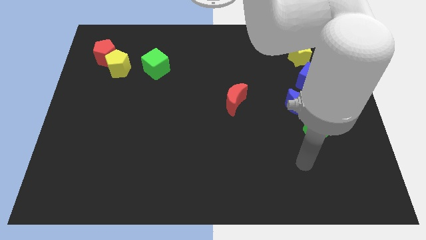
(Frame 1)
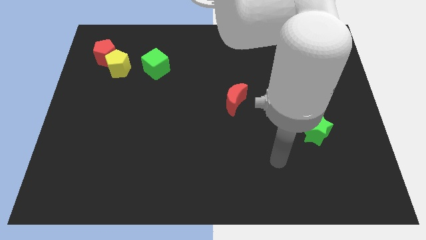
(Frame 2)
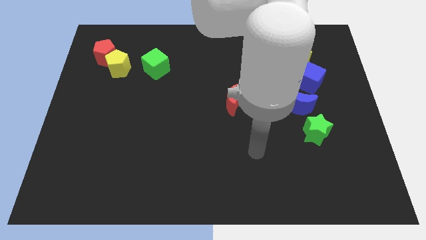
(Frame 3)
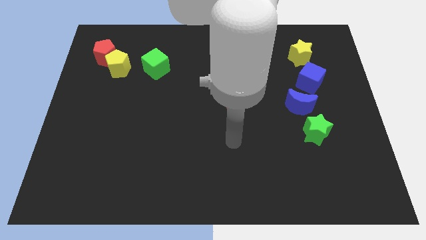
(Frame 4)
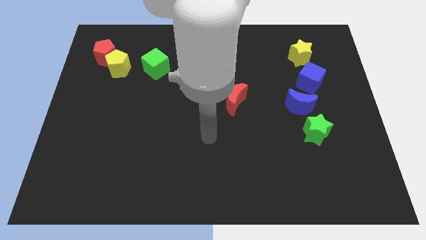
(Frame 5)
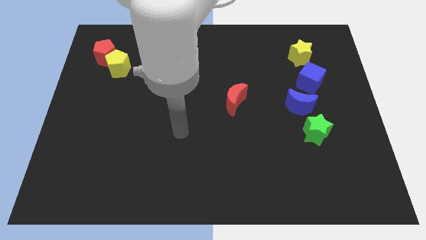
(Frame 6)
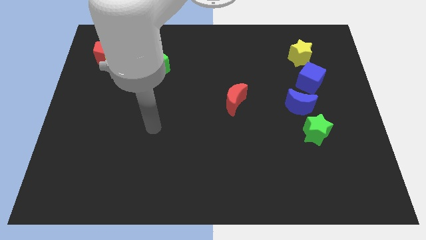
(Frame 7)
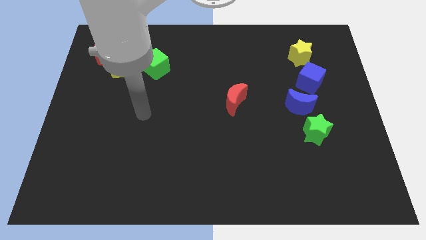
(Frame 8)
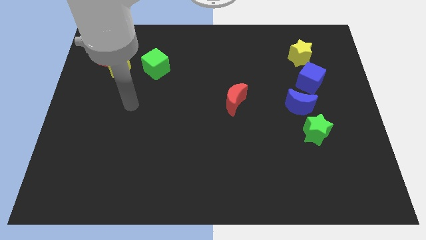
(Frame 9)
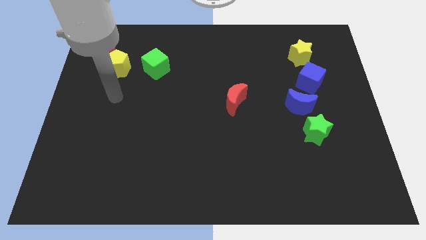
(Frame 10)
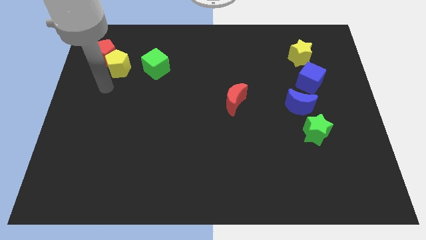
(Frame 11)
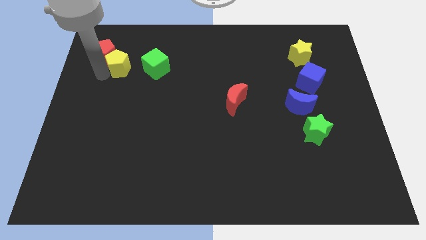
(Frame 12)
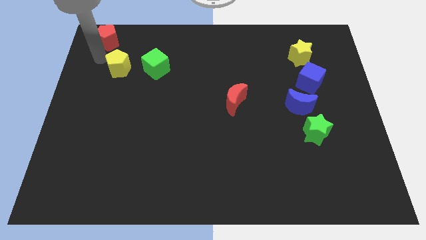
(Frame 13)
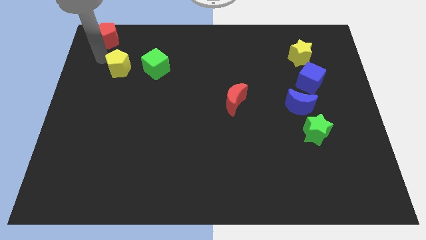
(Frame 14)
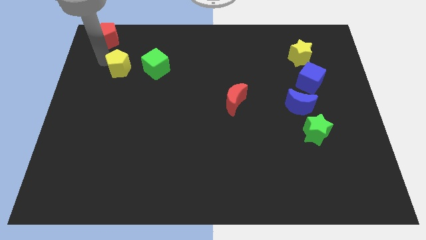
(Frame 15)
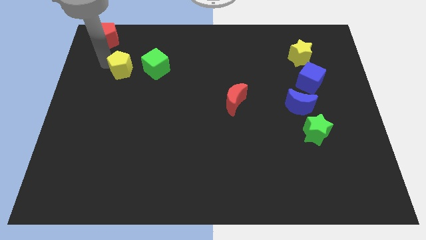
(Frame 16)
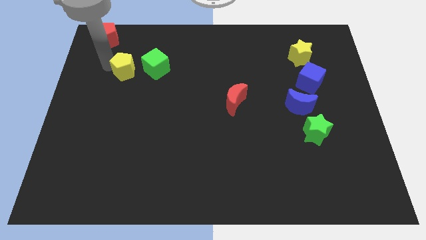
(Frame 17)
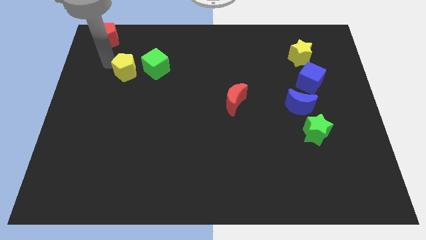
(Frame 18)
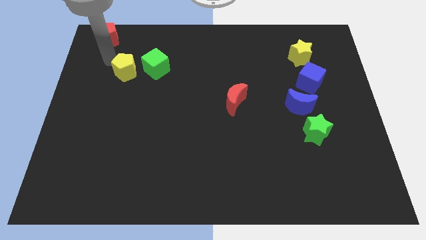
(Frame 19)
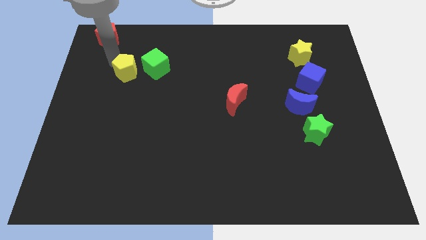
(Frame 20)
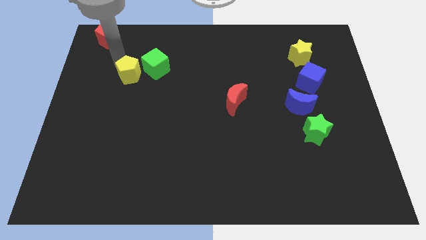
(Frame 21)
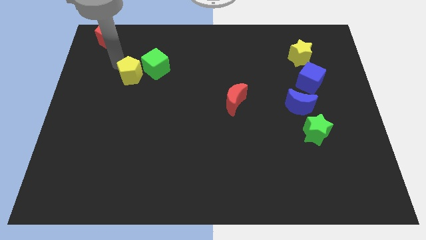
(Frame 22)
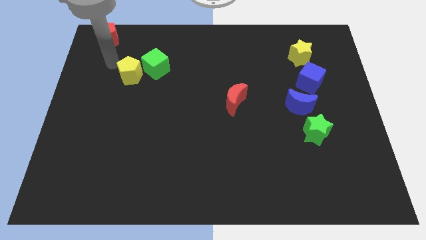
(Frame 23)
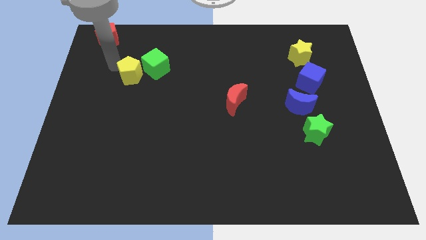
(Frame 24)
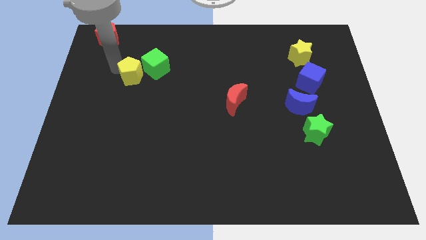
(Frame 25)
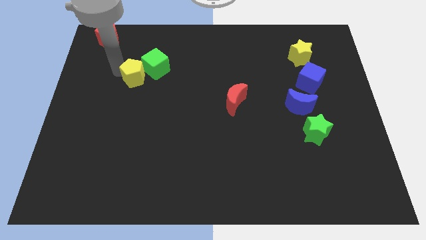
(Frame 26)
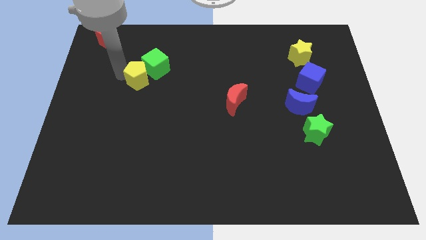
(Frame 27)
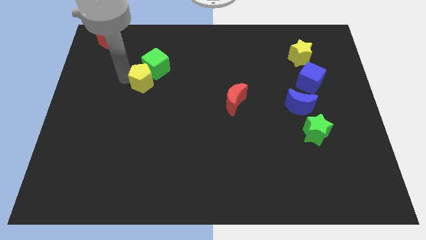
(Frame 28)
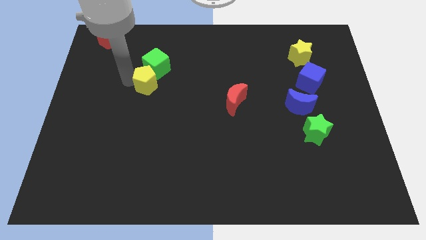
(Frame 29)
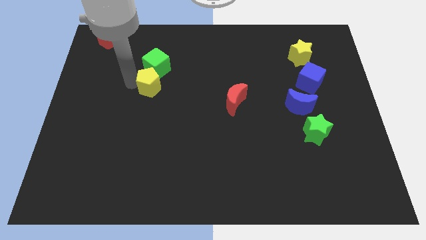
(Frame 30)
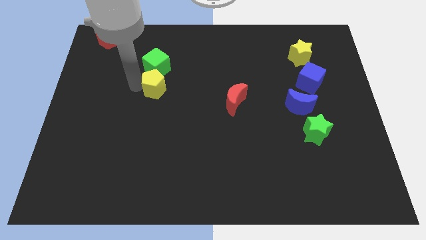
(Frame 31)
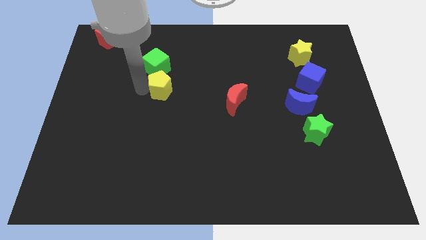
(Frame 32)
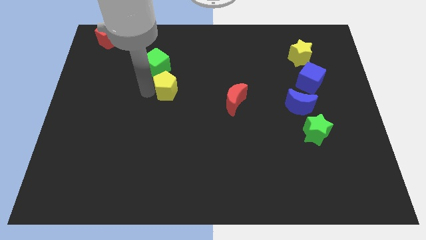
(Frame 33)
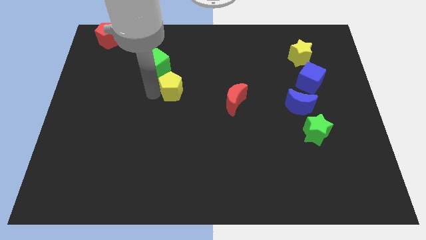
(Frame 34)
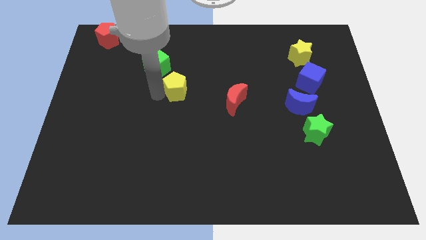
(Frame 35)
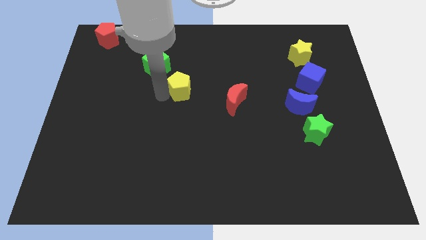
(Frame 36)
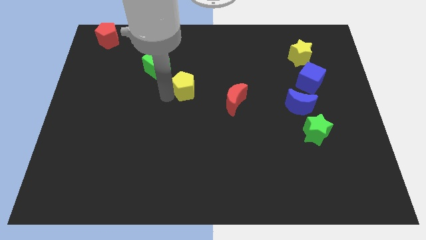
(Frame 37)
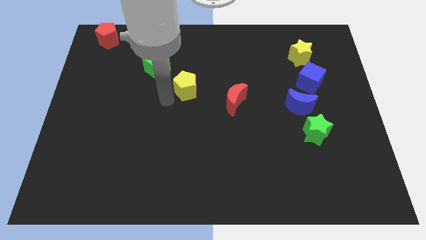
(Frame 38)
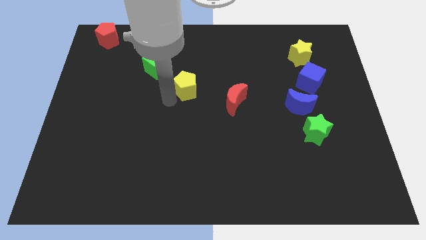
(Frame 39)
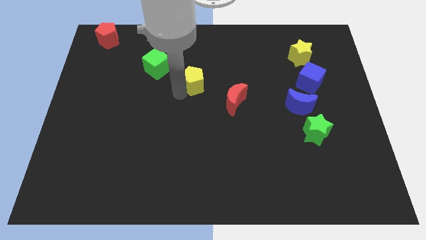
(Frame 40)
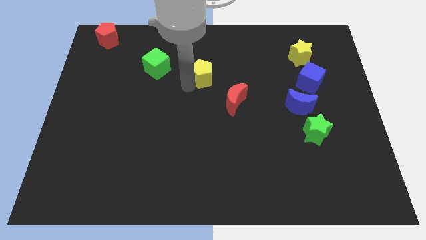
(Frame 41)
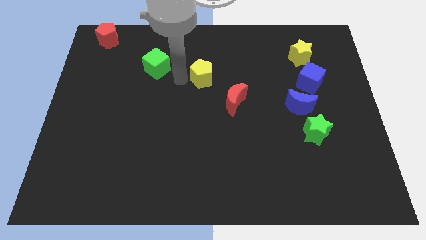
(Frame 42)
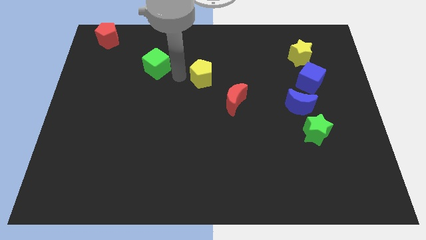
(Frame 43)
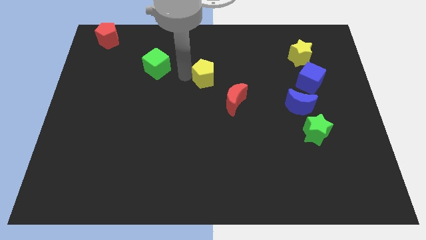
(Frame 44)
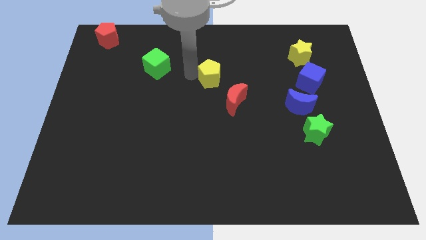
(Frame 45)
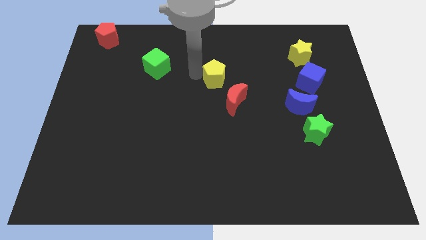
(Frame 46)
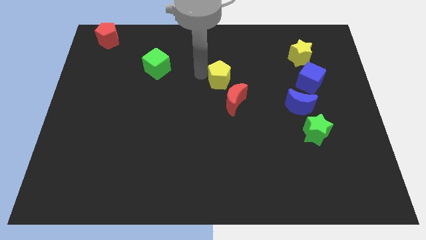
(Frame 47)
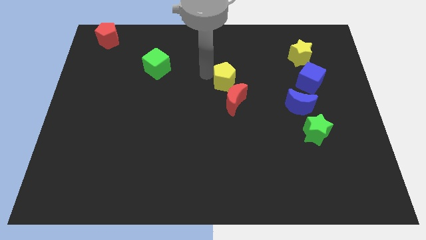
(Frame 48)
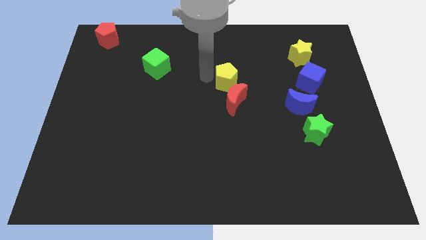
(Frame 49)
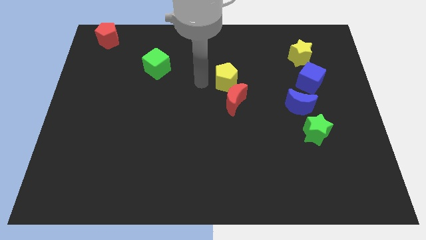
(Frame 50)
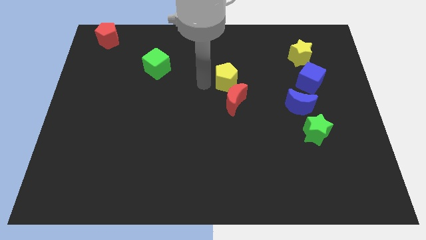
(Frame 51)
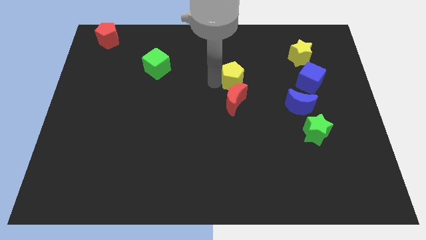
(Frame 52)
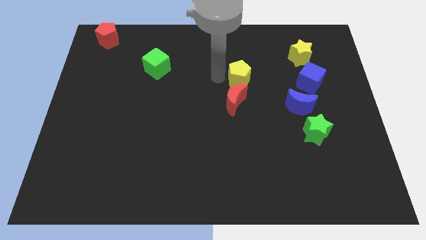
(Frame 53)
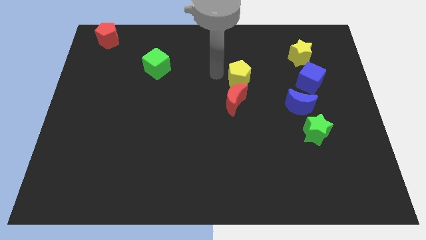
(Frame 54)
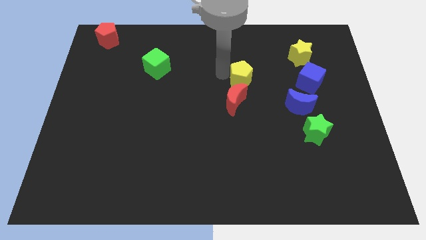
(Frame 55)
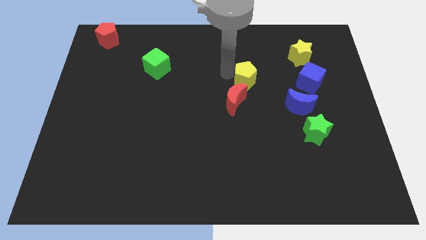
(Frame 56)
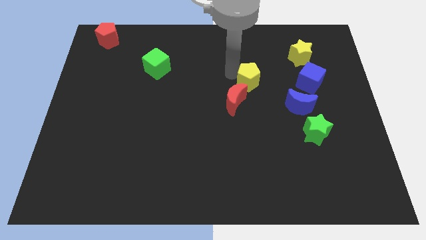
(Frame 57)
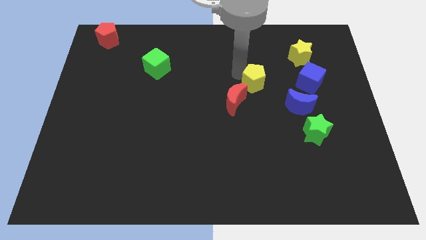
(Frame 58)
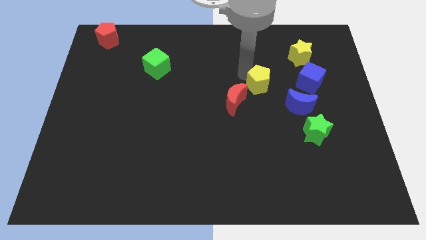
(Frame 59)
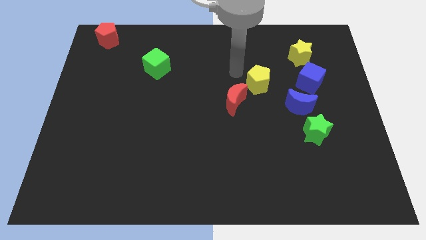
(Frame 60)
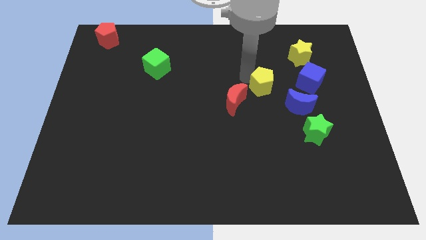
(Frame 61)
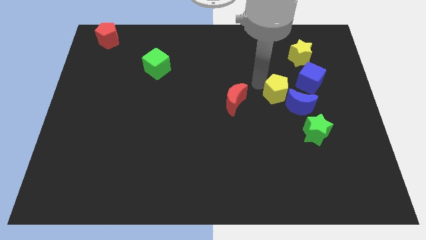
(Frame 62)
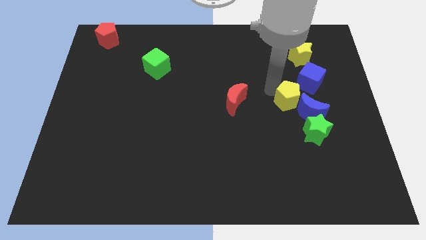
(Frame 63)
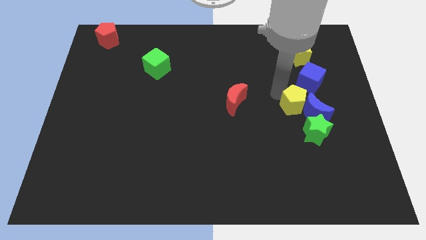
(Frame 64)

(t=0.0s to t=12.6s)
slide the yellow pentagon towards the blue moon

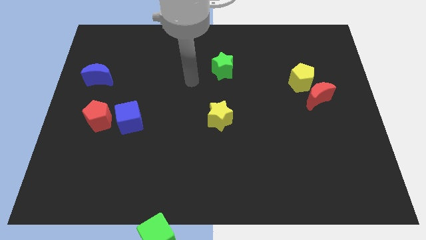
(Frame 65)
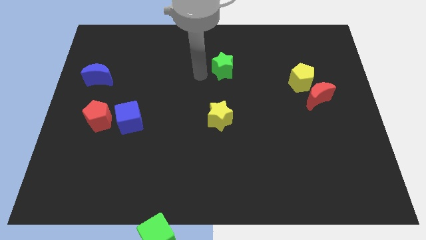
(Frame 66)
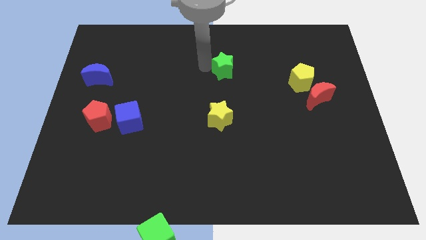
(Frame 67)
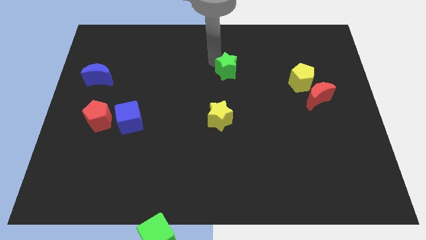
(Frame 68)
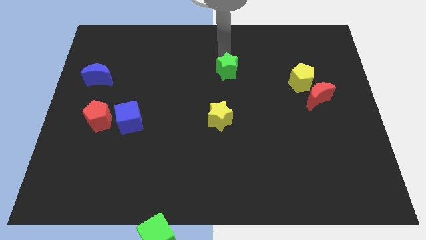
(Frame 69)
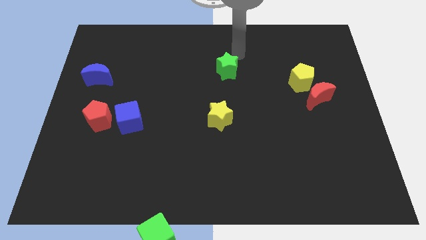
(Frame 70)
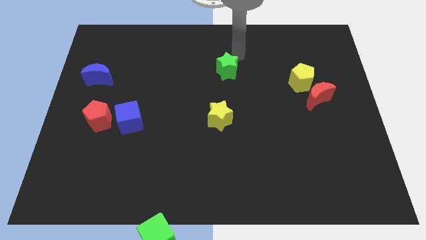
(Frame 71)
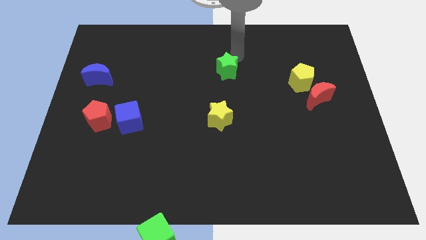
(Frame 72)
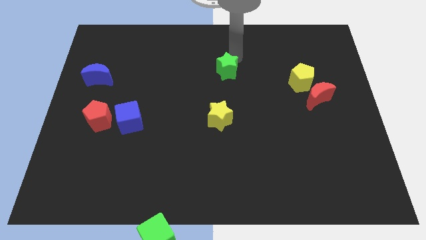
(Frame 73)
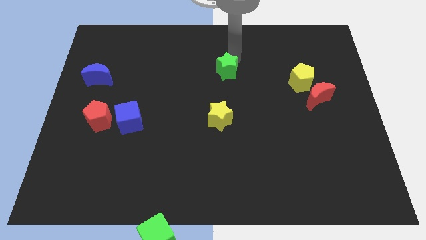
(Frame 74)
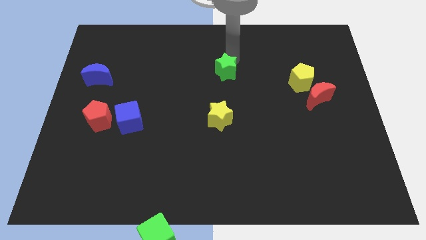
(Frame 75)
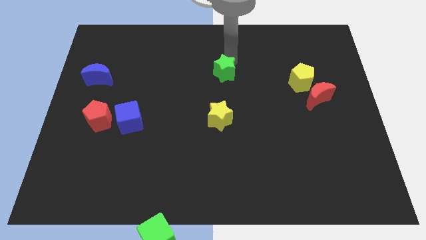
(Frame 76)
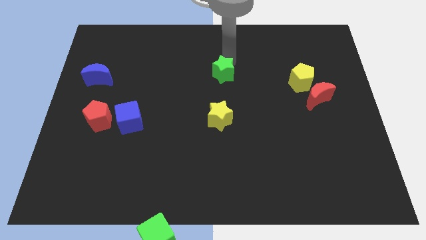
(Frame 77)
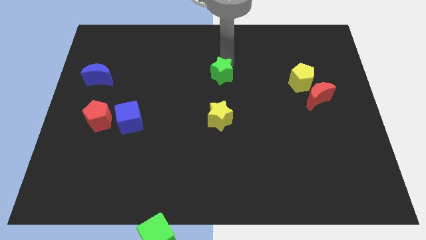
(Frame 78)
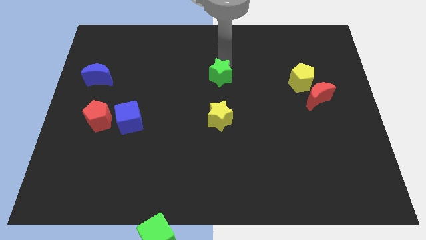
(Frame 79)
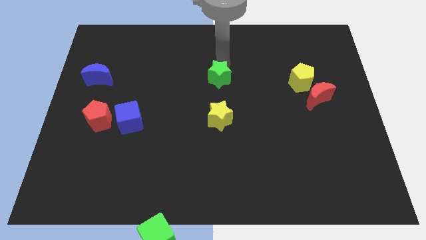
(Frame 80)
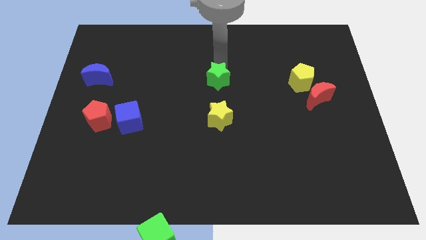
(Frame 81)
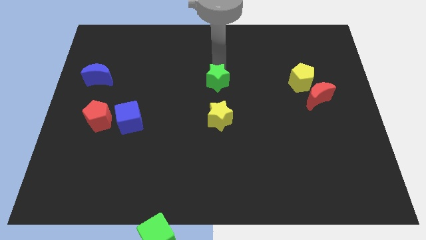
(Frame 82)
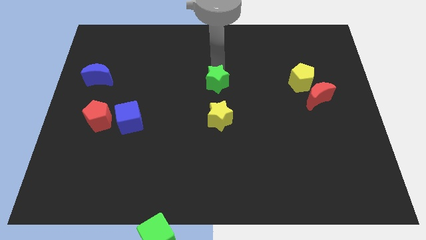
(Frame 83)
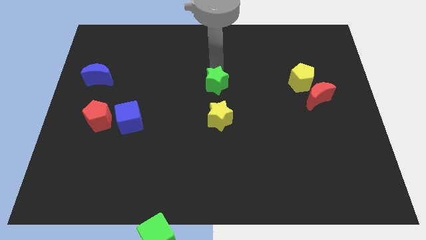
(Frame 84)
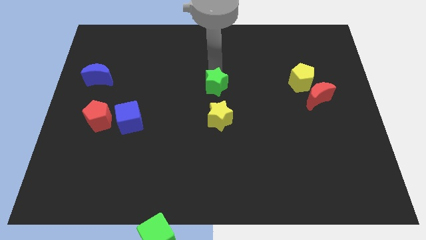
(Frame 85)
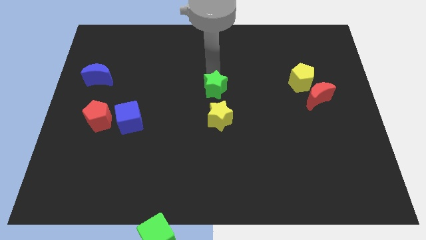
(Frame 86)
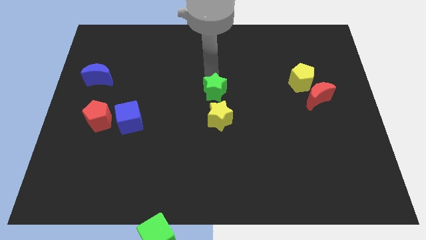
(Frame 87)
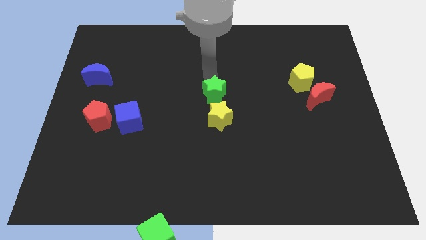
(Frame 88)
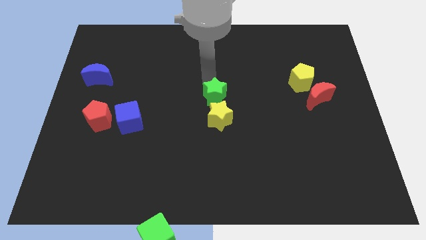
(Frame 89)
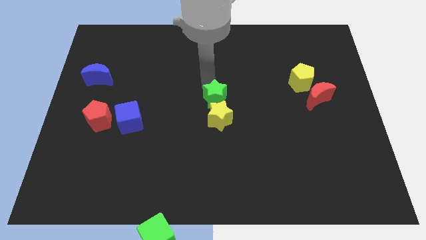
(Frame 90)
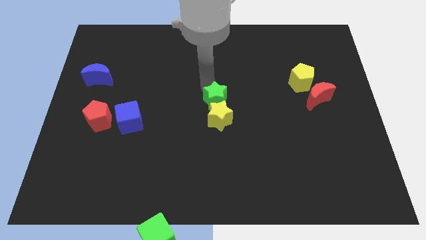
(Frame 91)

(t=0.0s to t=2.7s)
move the green star towards the yellow star
